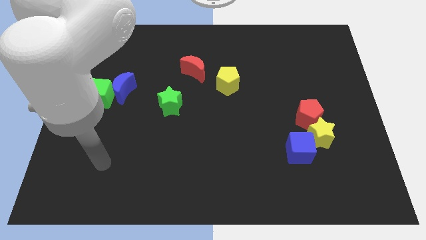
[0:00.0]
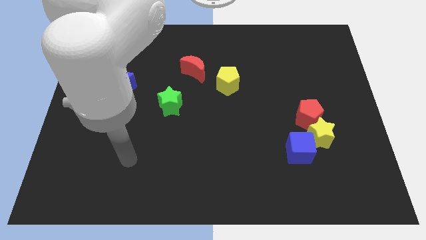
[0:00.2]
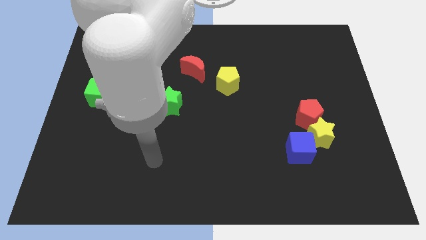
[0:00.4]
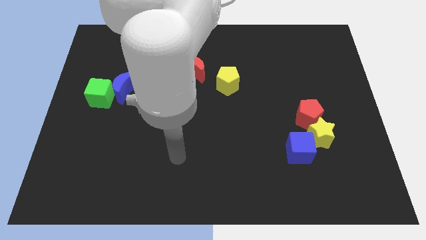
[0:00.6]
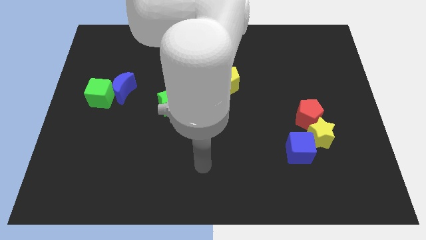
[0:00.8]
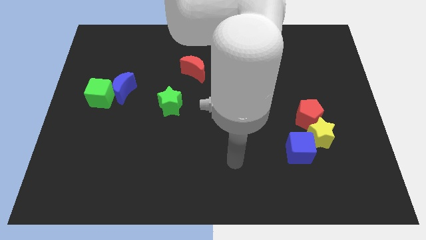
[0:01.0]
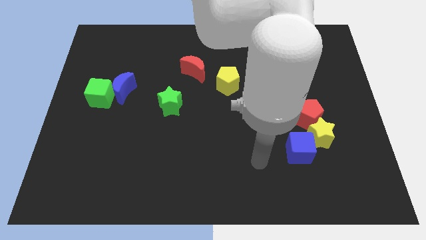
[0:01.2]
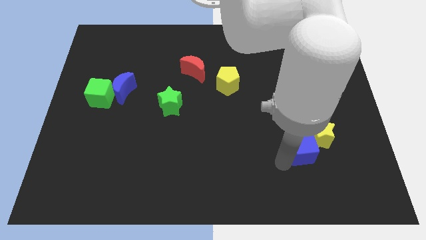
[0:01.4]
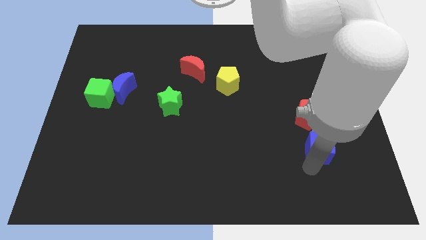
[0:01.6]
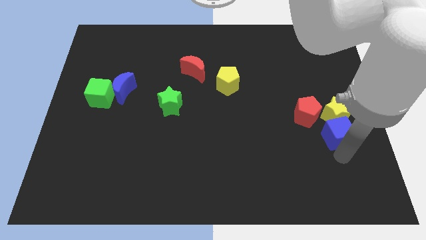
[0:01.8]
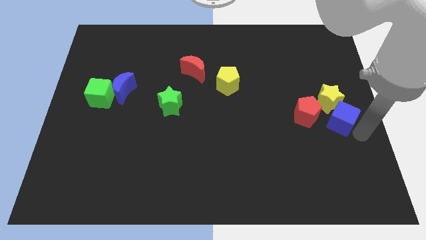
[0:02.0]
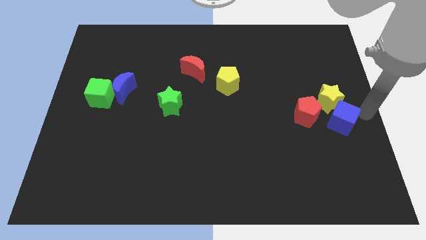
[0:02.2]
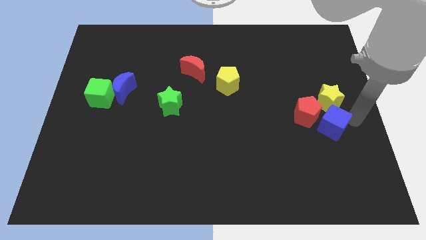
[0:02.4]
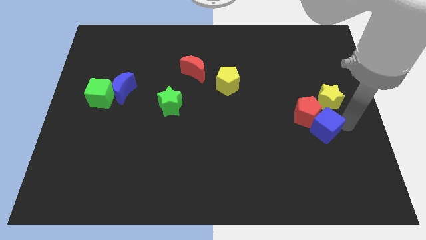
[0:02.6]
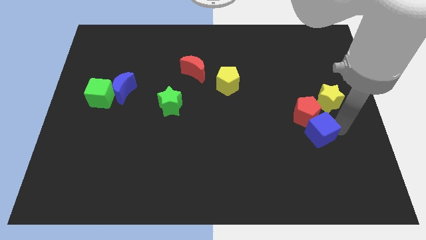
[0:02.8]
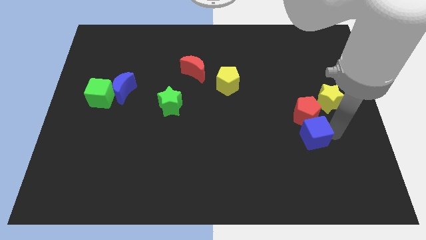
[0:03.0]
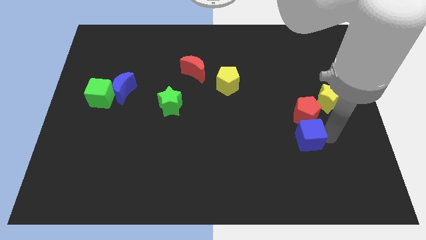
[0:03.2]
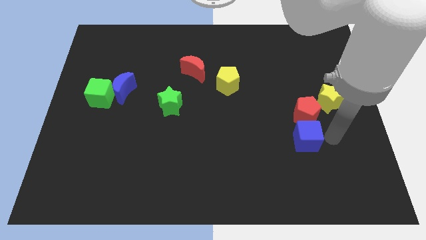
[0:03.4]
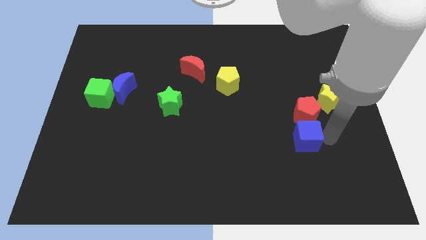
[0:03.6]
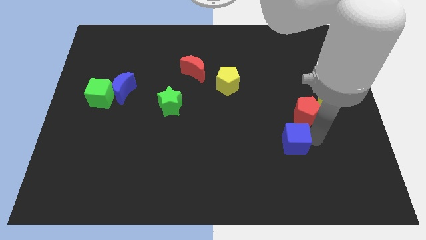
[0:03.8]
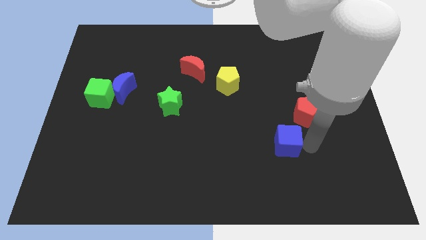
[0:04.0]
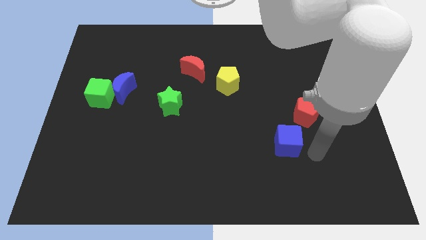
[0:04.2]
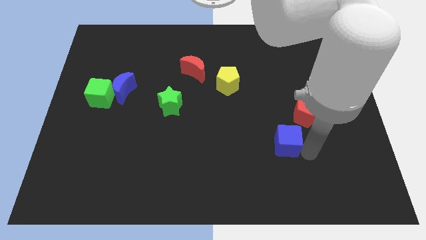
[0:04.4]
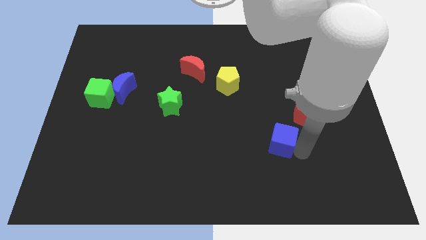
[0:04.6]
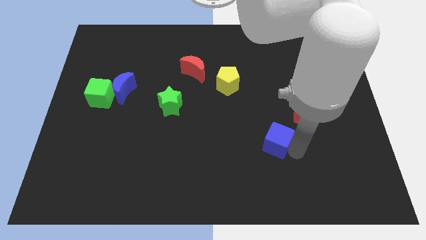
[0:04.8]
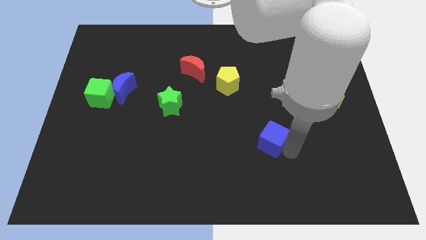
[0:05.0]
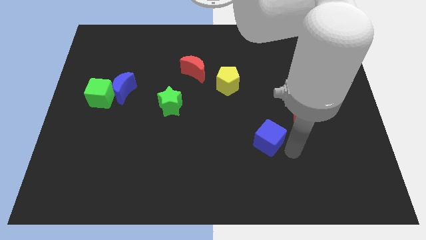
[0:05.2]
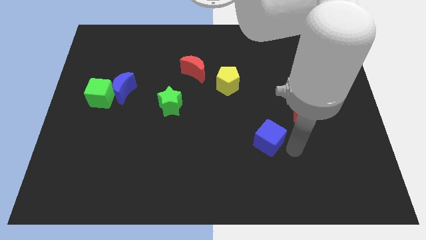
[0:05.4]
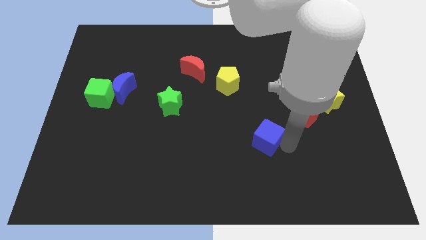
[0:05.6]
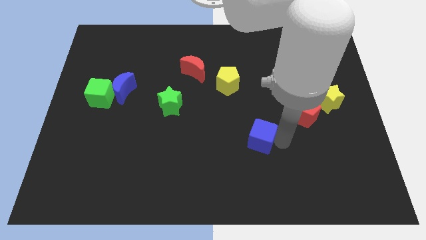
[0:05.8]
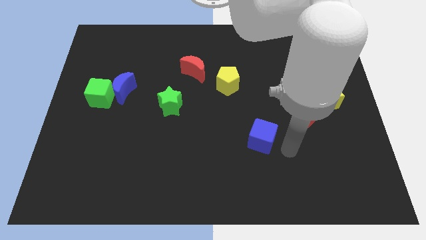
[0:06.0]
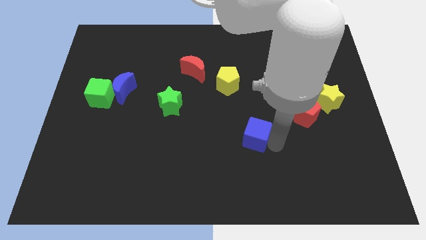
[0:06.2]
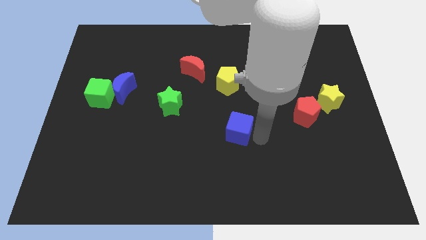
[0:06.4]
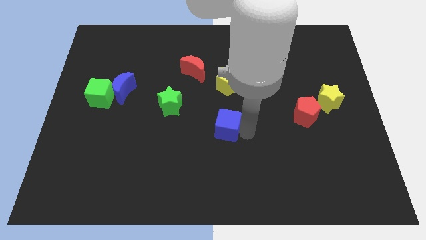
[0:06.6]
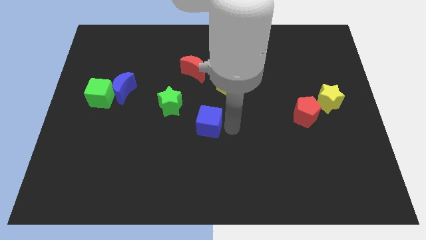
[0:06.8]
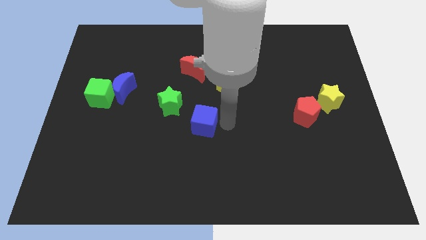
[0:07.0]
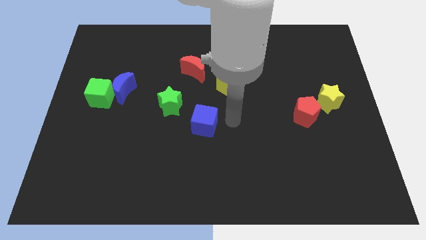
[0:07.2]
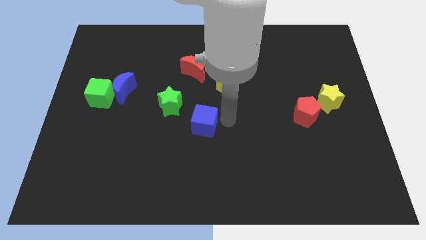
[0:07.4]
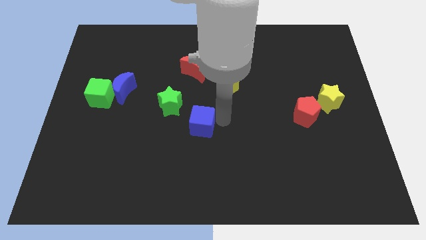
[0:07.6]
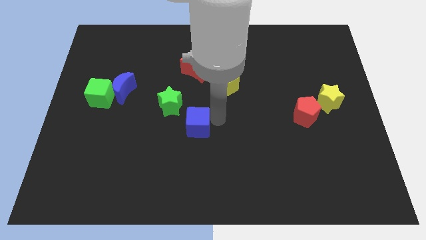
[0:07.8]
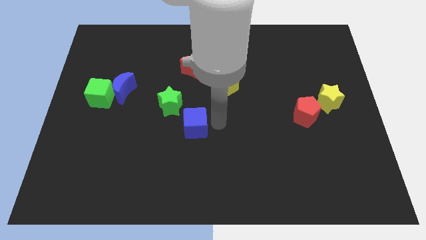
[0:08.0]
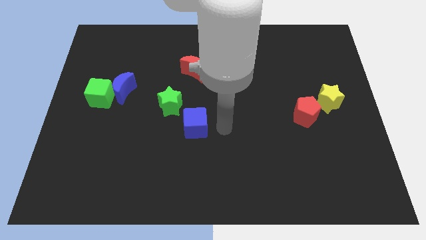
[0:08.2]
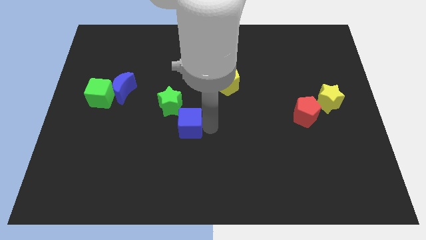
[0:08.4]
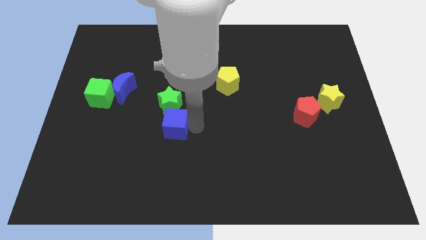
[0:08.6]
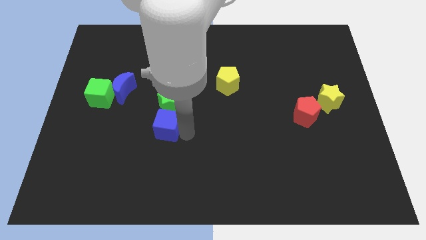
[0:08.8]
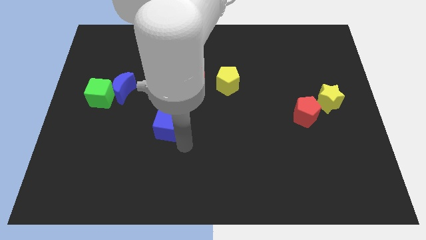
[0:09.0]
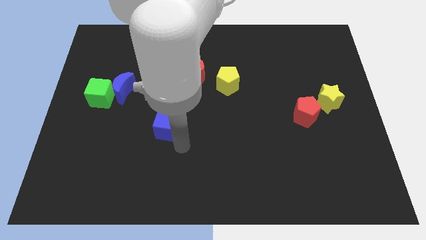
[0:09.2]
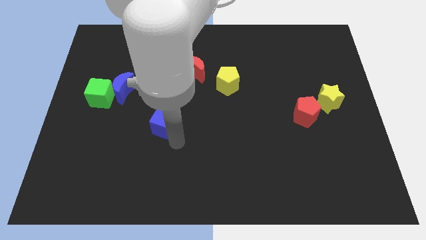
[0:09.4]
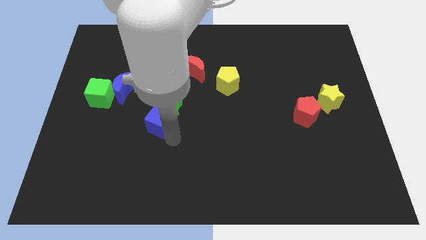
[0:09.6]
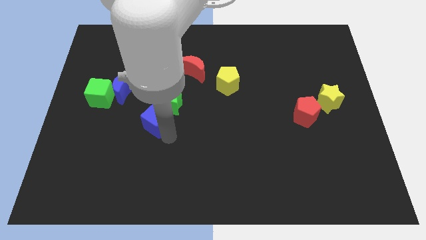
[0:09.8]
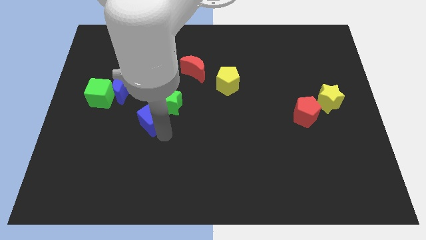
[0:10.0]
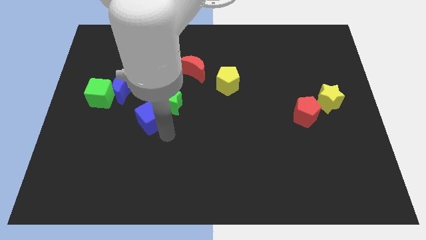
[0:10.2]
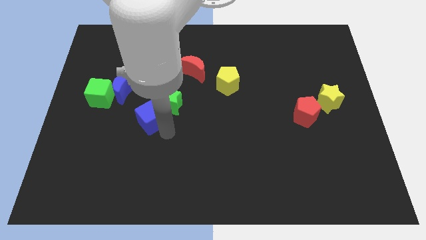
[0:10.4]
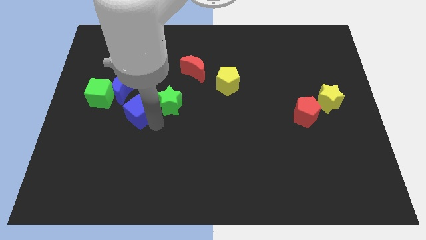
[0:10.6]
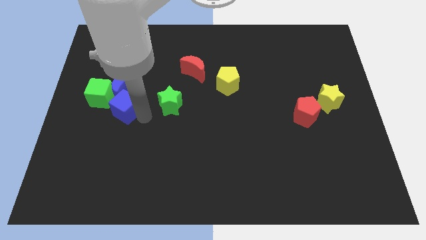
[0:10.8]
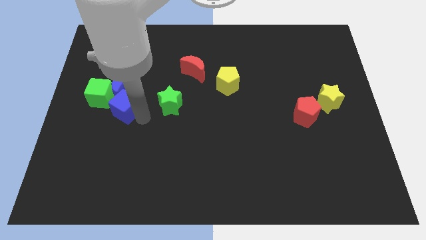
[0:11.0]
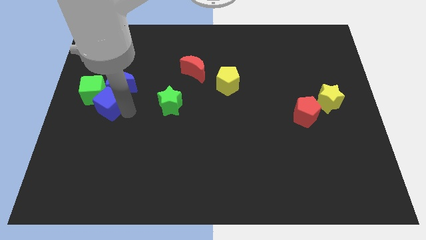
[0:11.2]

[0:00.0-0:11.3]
push the blue cube next to the green cube
